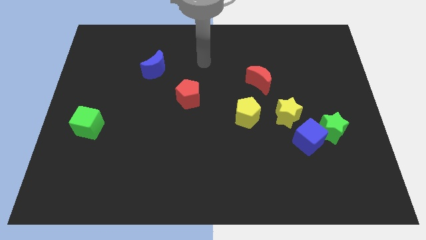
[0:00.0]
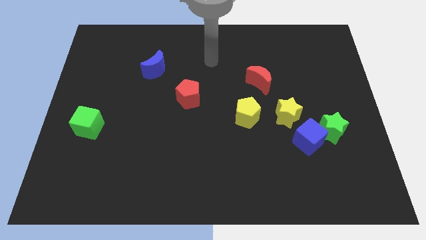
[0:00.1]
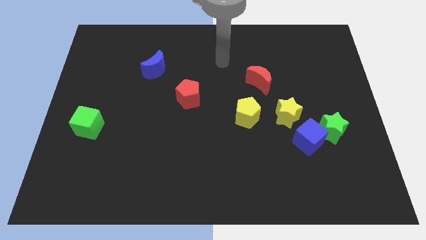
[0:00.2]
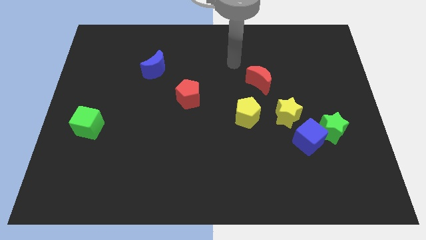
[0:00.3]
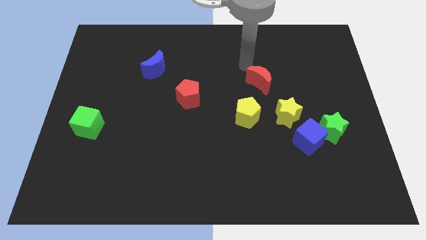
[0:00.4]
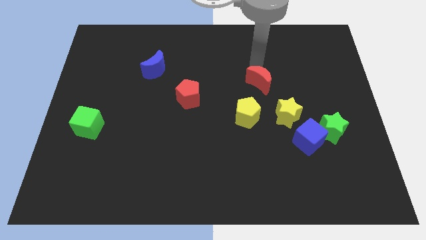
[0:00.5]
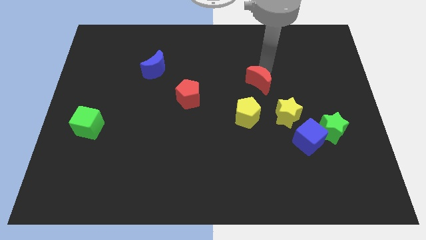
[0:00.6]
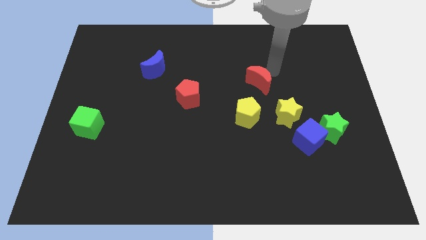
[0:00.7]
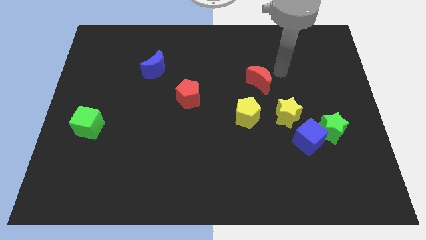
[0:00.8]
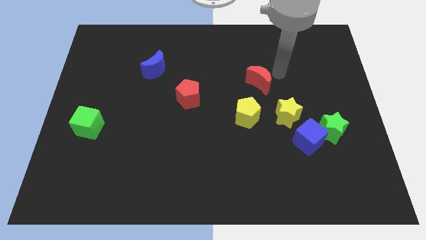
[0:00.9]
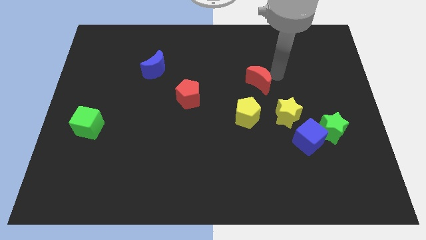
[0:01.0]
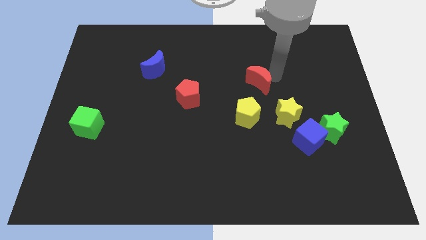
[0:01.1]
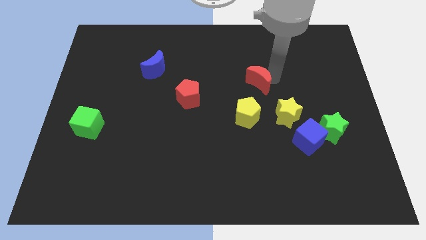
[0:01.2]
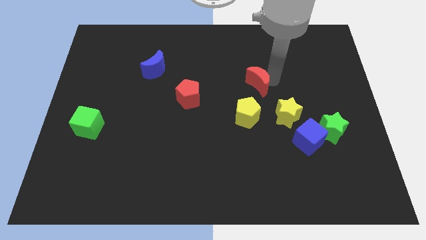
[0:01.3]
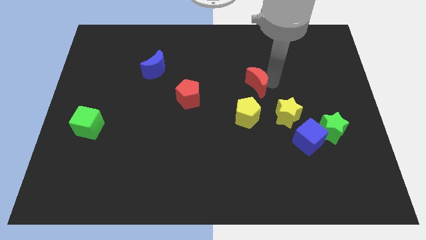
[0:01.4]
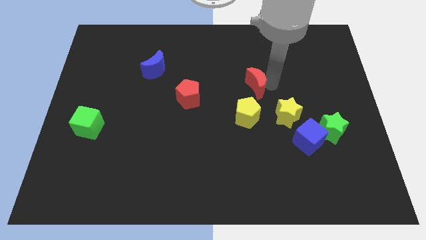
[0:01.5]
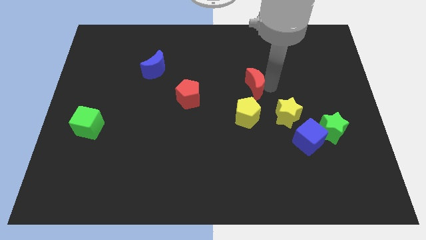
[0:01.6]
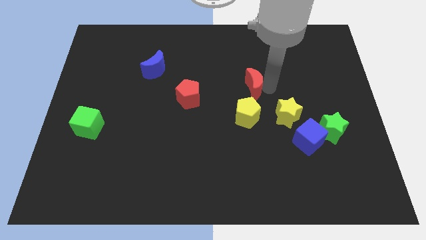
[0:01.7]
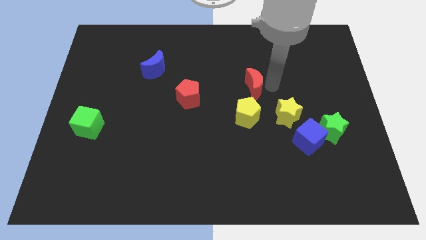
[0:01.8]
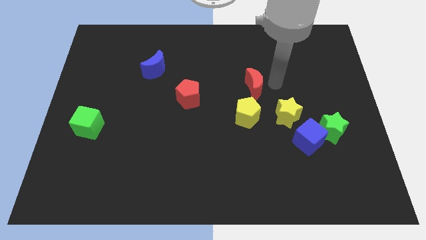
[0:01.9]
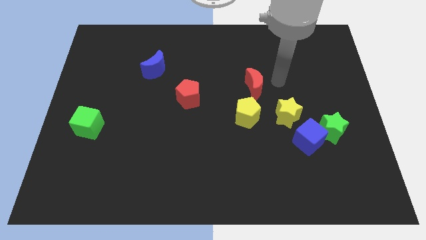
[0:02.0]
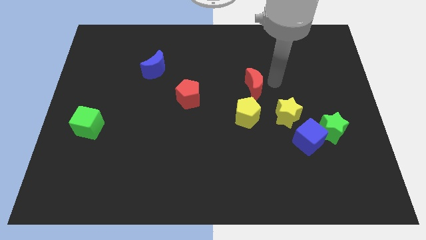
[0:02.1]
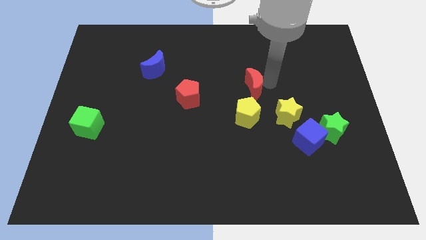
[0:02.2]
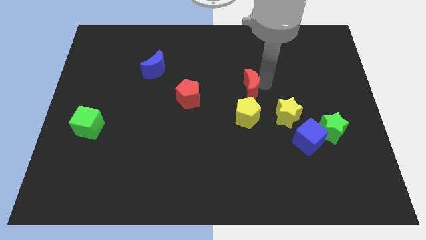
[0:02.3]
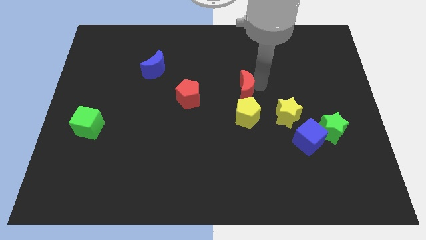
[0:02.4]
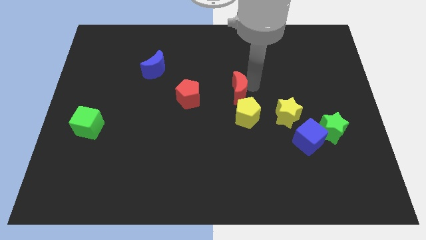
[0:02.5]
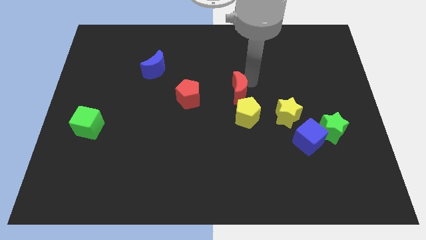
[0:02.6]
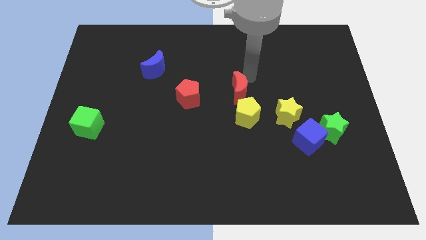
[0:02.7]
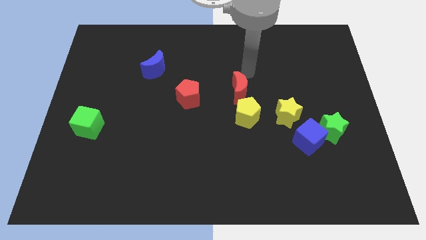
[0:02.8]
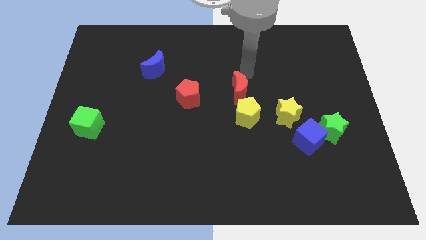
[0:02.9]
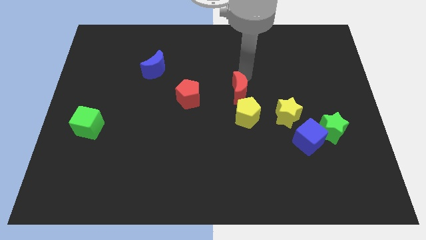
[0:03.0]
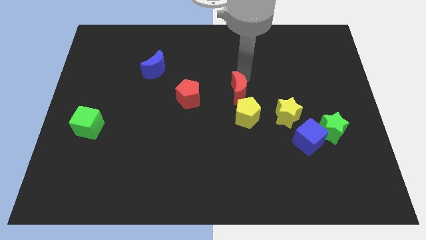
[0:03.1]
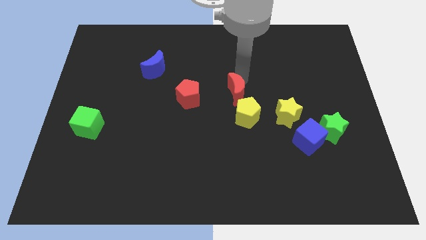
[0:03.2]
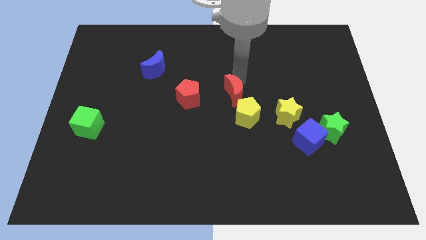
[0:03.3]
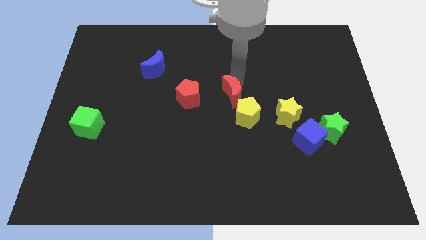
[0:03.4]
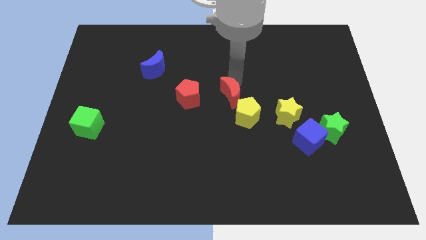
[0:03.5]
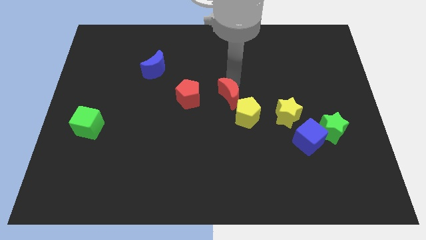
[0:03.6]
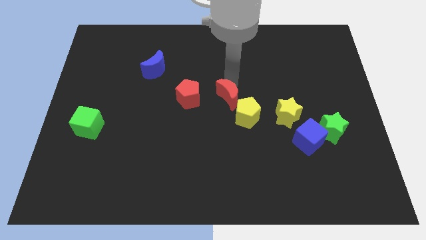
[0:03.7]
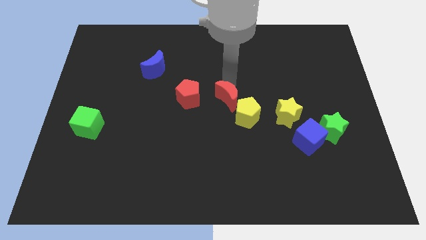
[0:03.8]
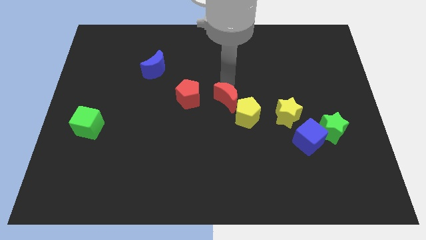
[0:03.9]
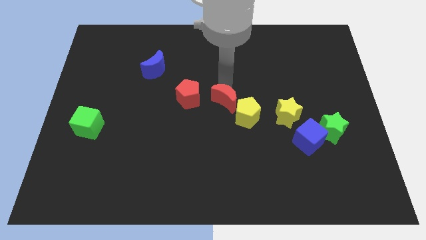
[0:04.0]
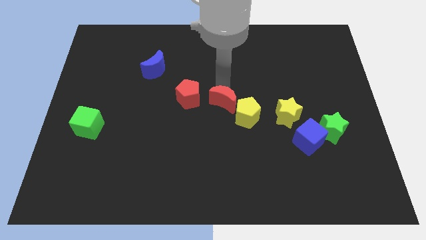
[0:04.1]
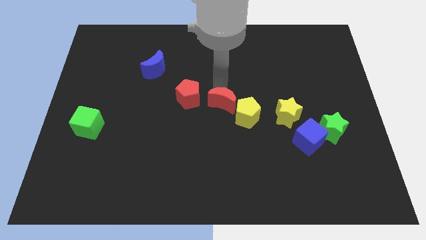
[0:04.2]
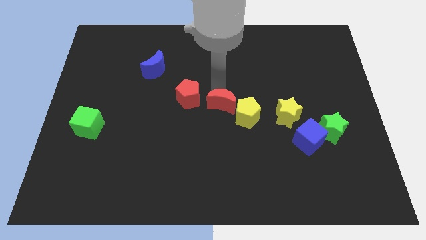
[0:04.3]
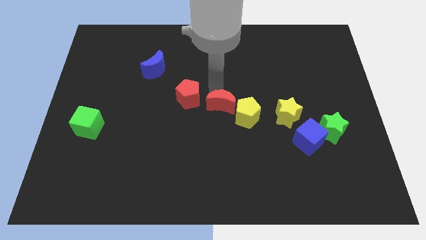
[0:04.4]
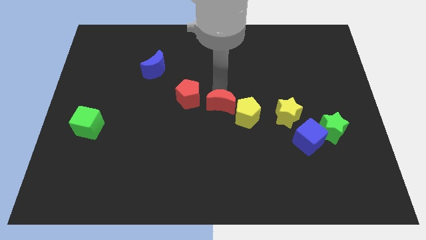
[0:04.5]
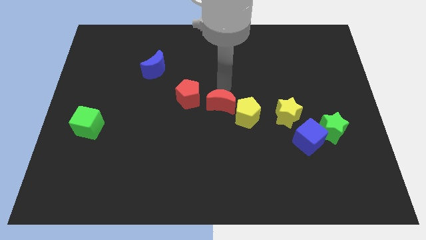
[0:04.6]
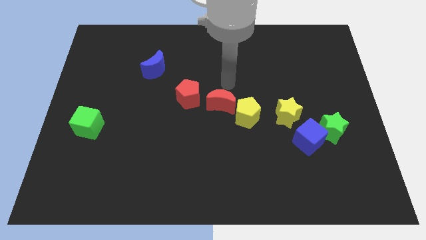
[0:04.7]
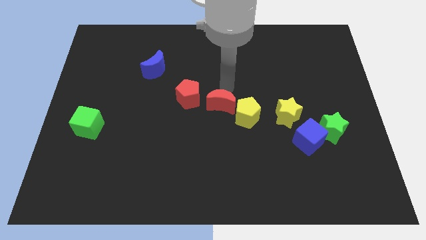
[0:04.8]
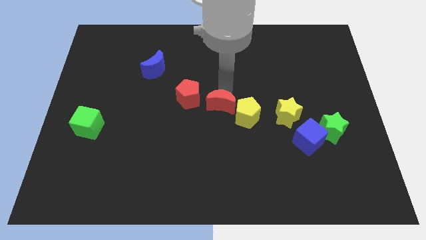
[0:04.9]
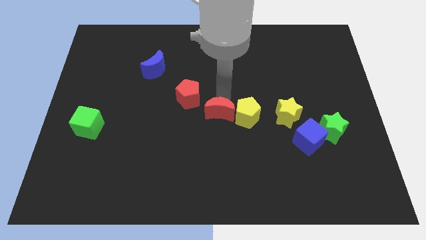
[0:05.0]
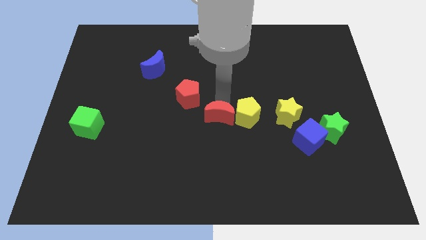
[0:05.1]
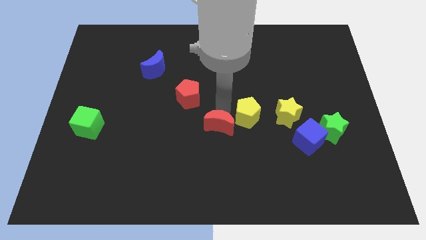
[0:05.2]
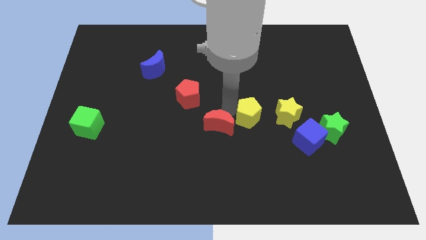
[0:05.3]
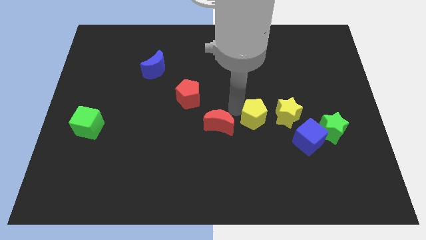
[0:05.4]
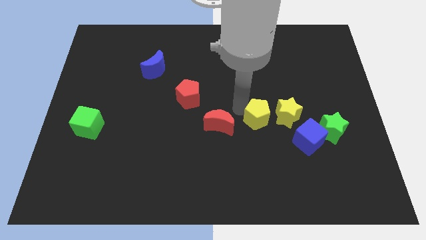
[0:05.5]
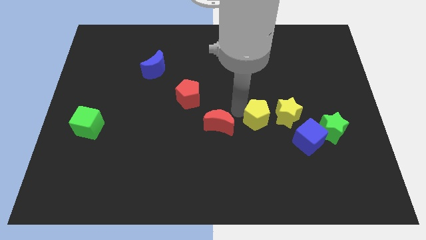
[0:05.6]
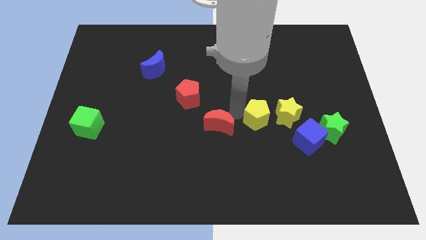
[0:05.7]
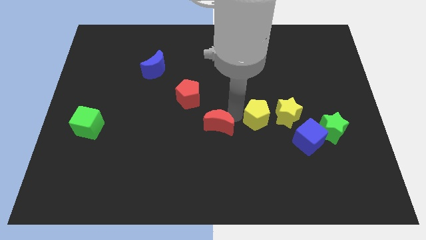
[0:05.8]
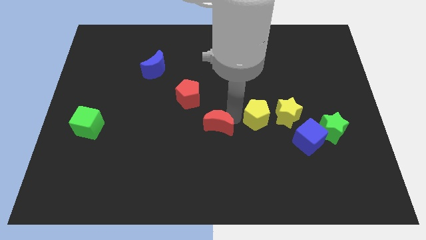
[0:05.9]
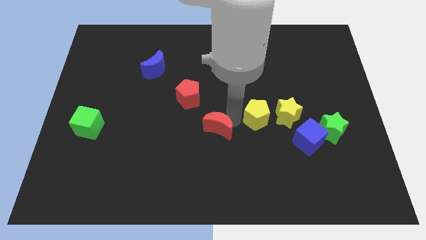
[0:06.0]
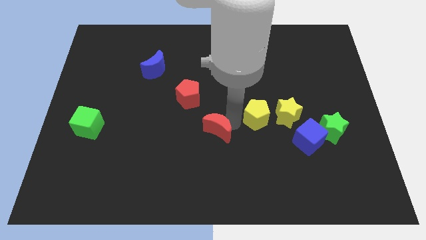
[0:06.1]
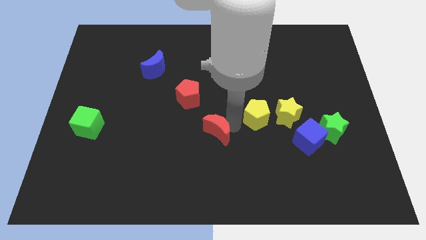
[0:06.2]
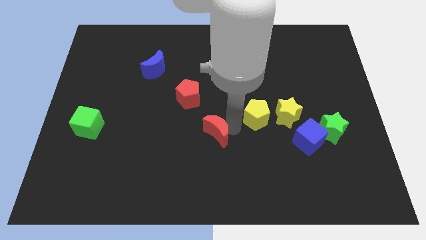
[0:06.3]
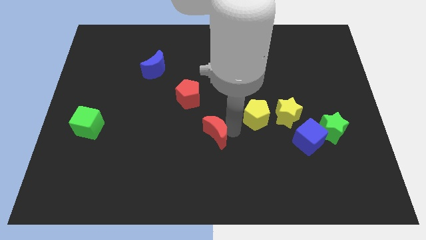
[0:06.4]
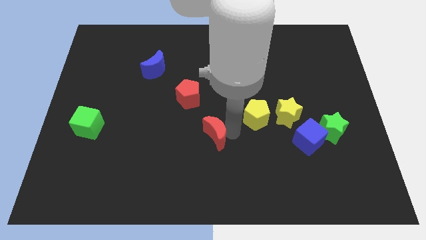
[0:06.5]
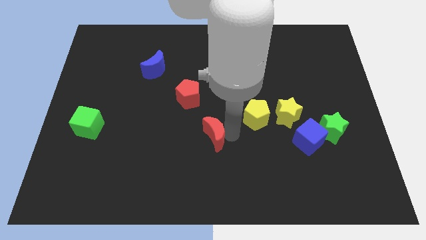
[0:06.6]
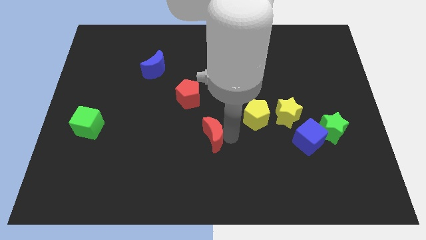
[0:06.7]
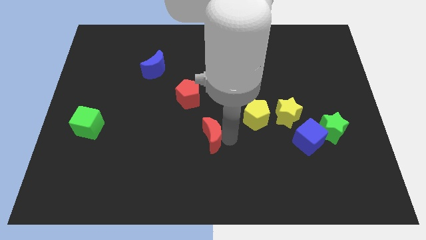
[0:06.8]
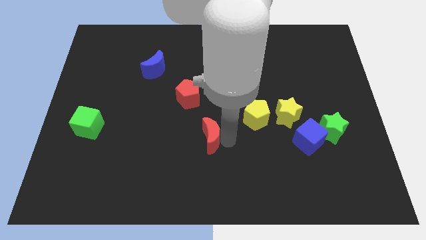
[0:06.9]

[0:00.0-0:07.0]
slide the red moon down and left

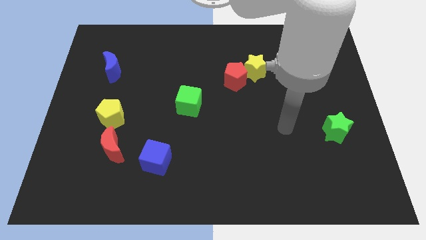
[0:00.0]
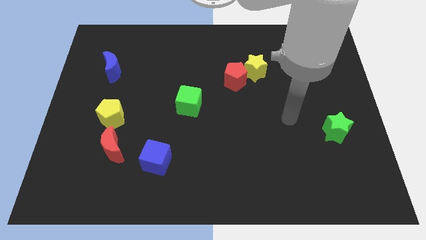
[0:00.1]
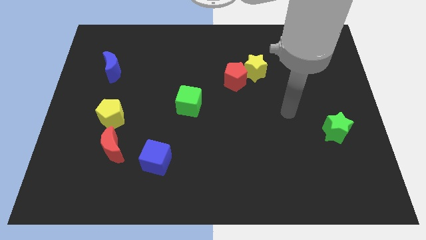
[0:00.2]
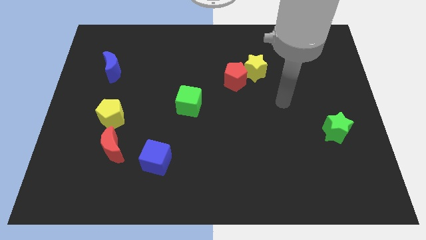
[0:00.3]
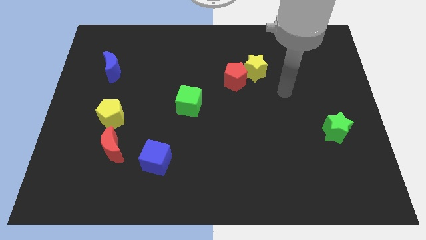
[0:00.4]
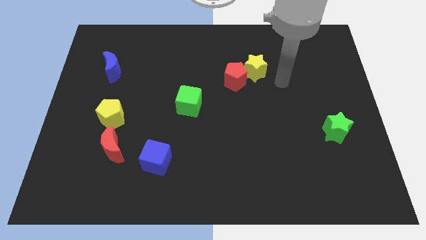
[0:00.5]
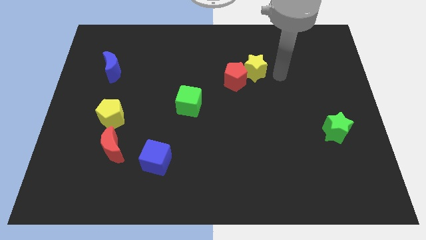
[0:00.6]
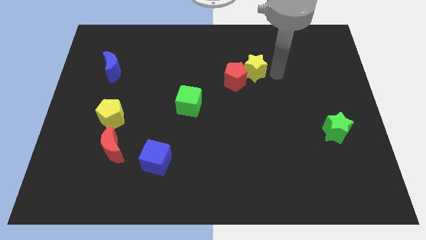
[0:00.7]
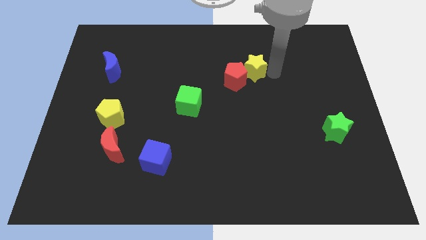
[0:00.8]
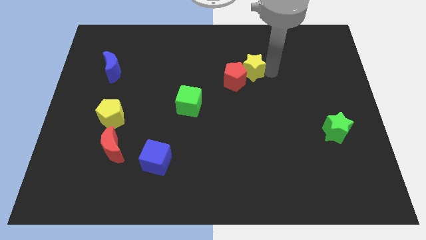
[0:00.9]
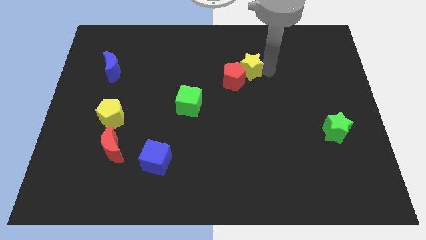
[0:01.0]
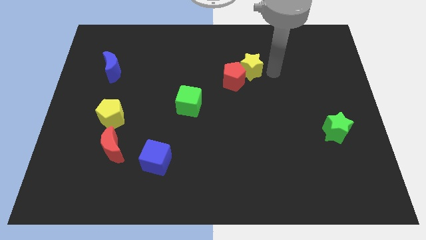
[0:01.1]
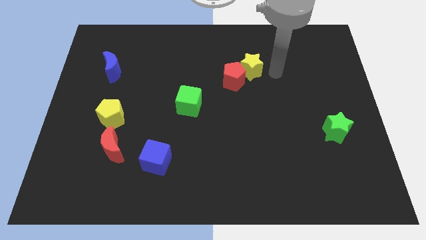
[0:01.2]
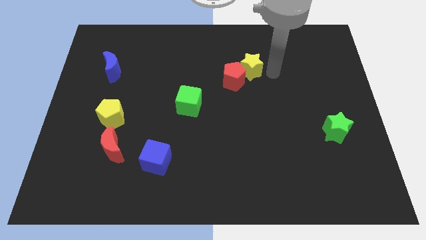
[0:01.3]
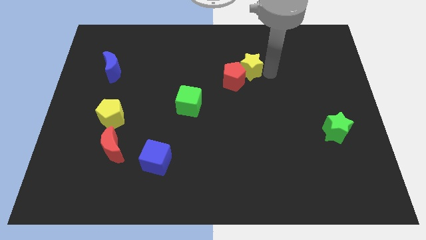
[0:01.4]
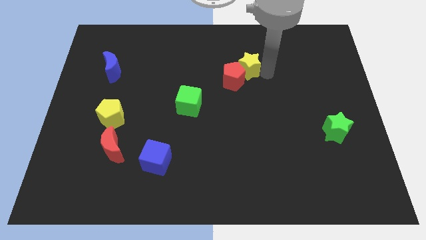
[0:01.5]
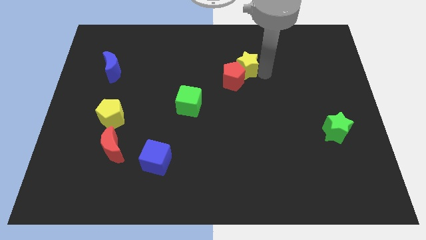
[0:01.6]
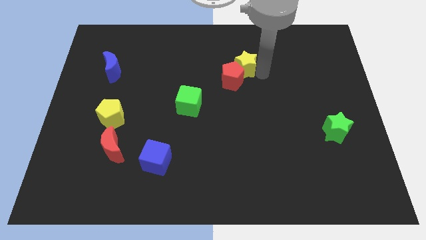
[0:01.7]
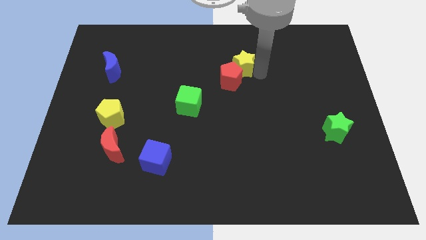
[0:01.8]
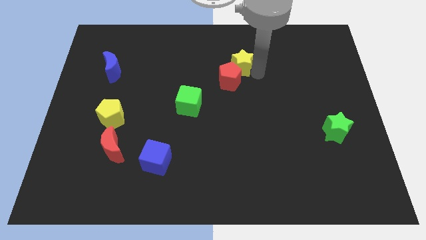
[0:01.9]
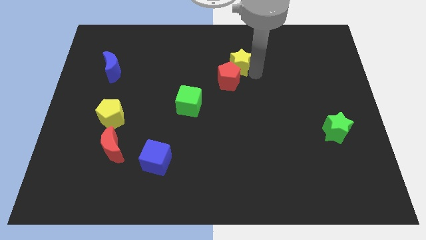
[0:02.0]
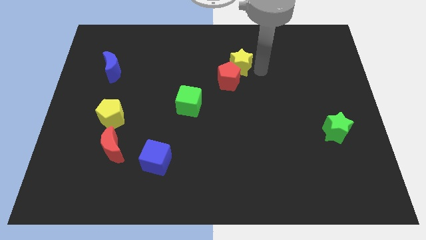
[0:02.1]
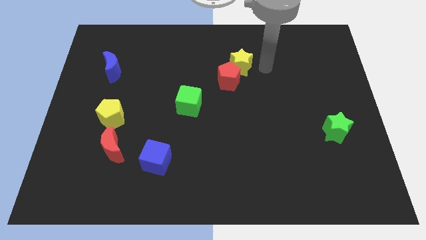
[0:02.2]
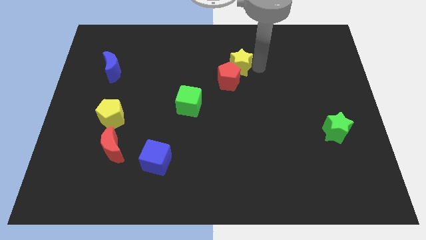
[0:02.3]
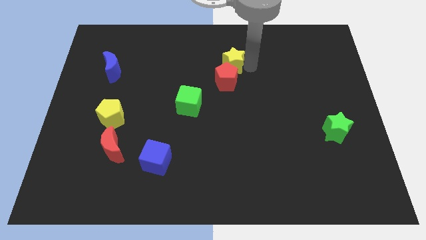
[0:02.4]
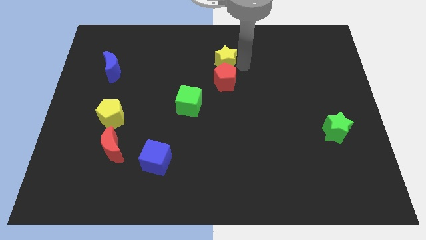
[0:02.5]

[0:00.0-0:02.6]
slightly slide the yellow star left
